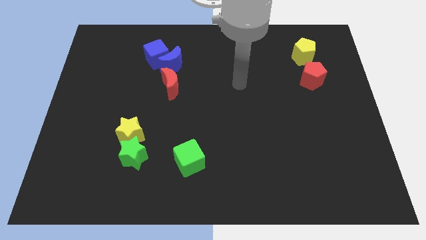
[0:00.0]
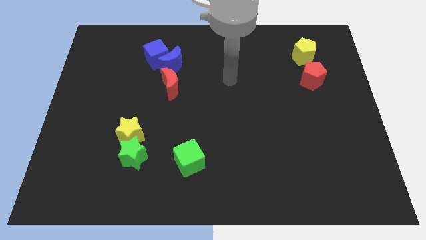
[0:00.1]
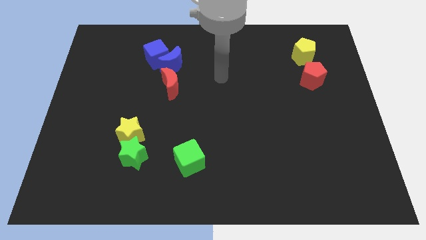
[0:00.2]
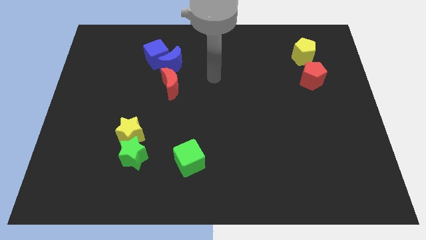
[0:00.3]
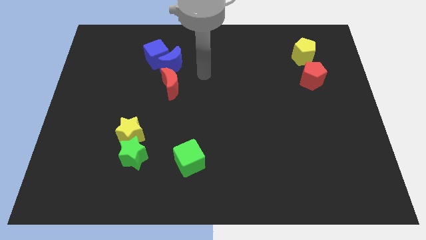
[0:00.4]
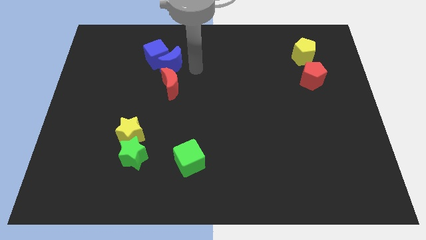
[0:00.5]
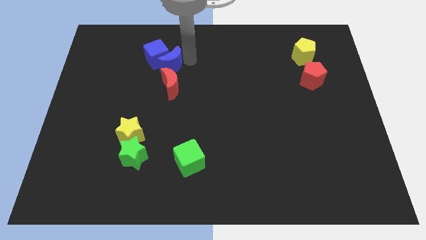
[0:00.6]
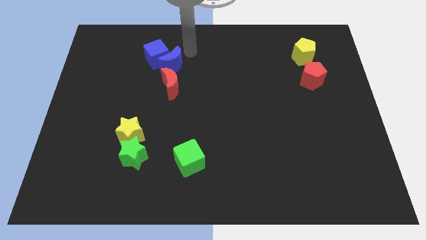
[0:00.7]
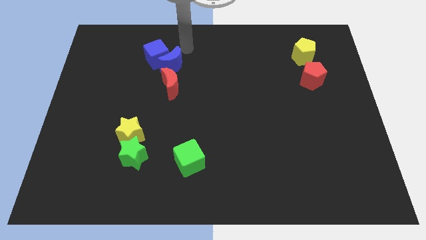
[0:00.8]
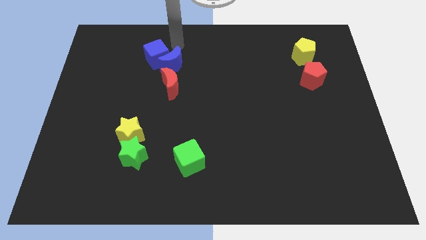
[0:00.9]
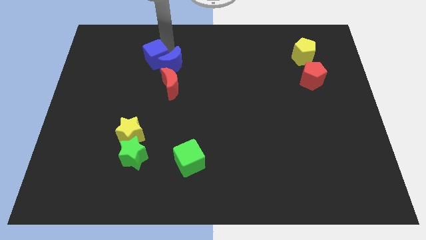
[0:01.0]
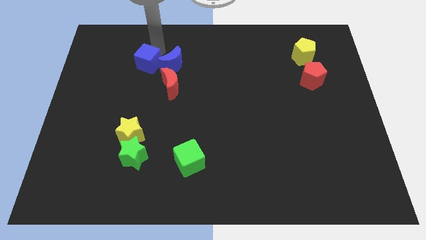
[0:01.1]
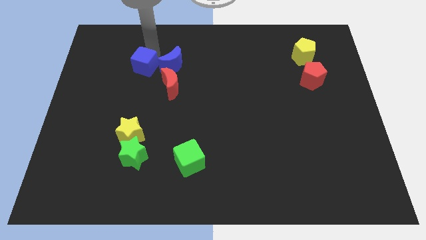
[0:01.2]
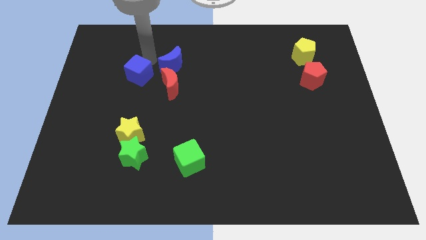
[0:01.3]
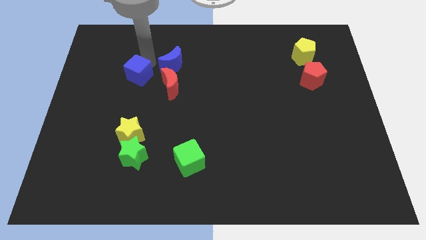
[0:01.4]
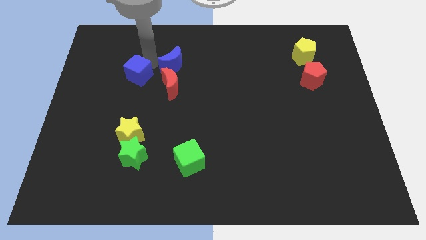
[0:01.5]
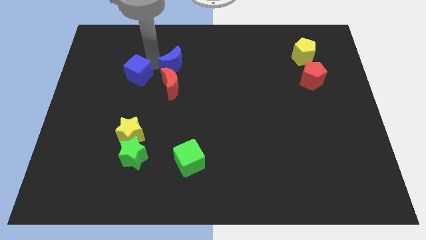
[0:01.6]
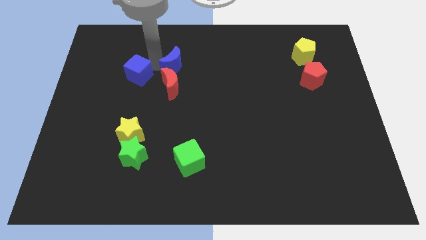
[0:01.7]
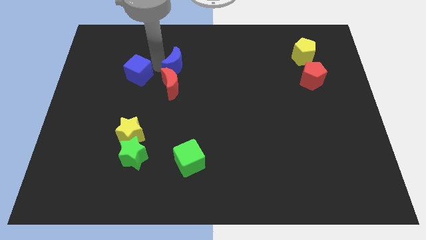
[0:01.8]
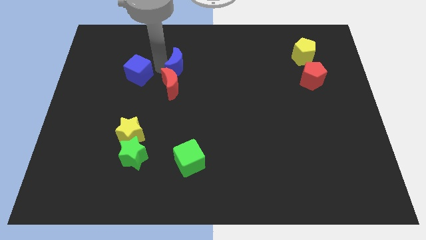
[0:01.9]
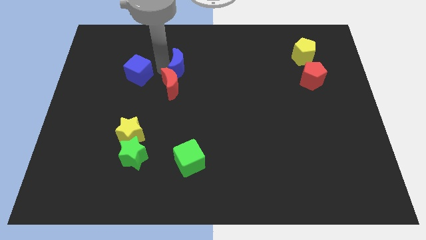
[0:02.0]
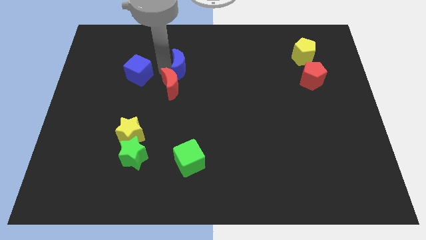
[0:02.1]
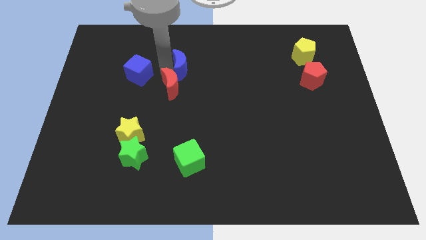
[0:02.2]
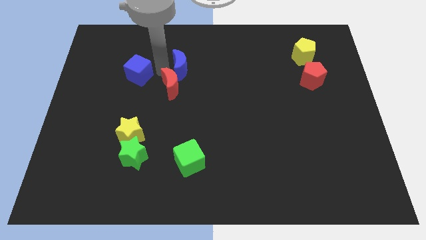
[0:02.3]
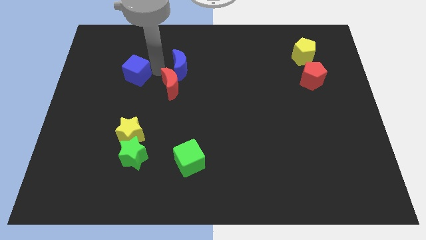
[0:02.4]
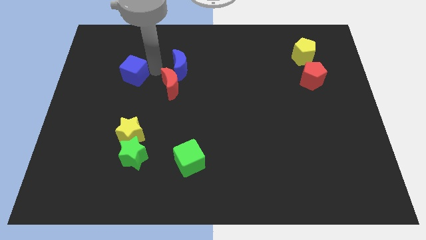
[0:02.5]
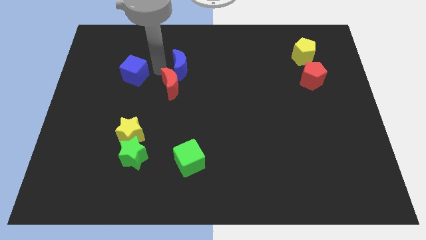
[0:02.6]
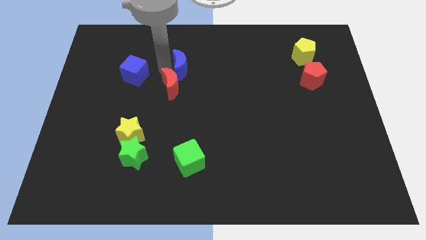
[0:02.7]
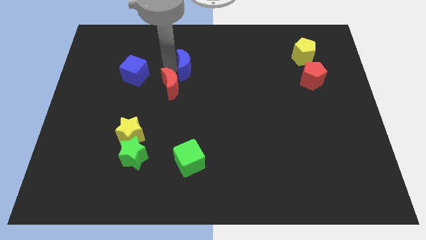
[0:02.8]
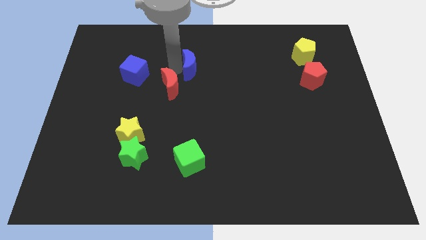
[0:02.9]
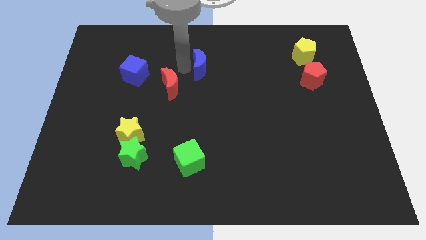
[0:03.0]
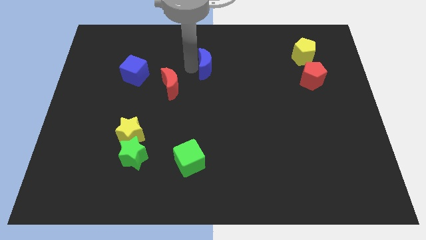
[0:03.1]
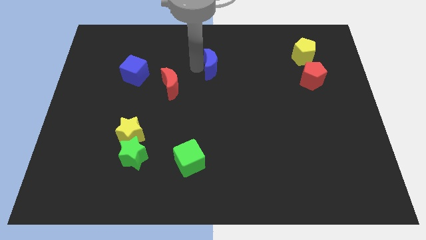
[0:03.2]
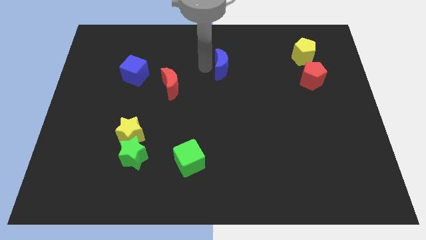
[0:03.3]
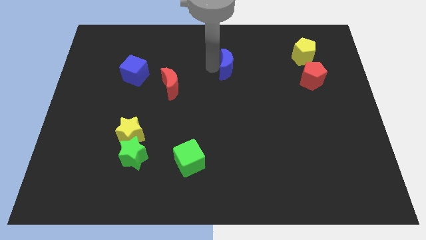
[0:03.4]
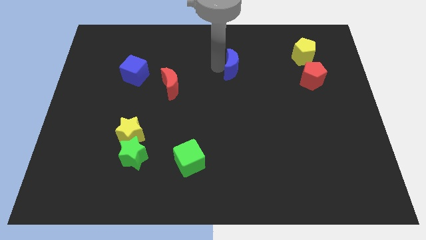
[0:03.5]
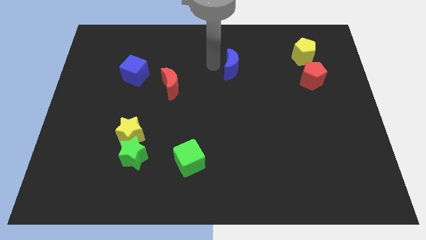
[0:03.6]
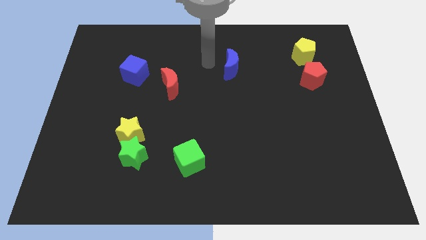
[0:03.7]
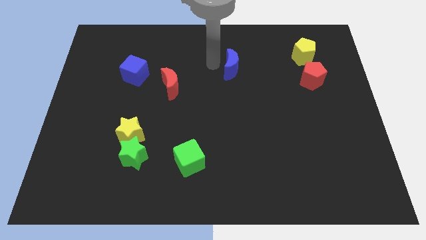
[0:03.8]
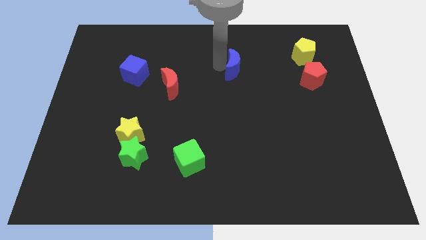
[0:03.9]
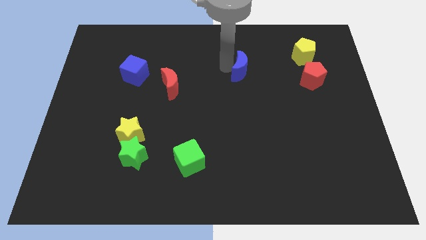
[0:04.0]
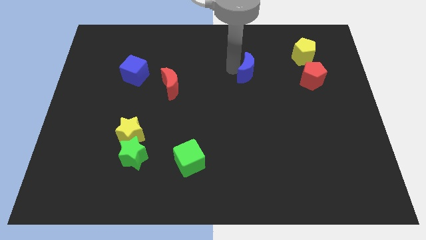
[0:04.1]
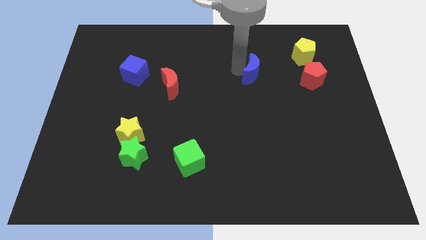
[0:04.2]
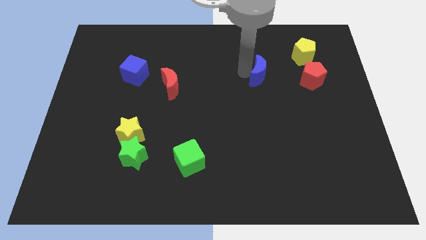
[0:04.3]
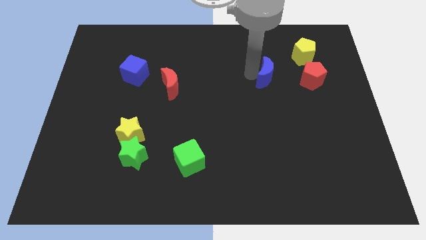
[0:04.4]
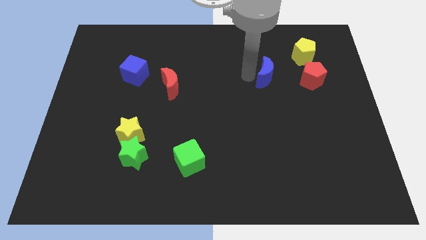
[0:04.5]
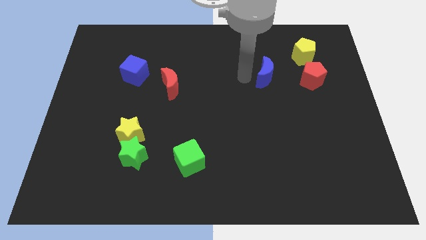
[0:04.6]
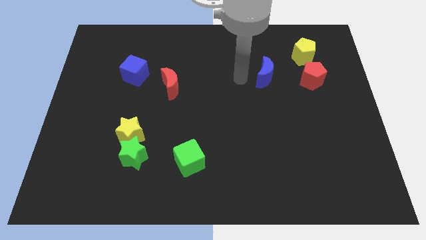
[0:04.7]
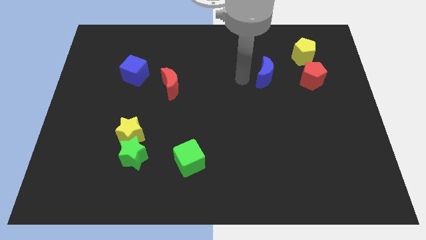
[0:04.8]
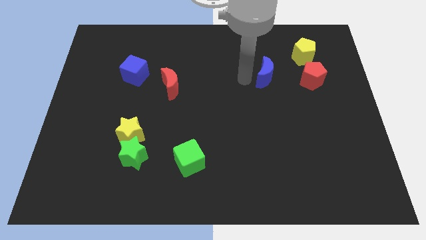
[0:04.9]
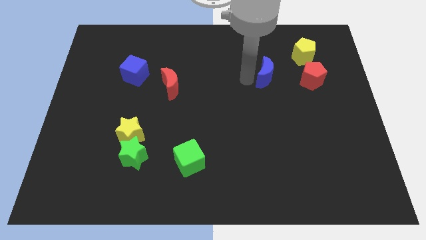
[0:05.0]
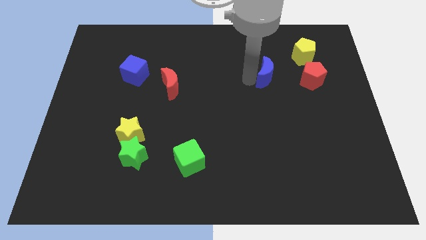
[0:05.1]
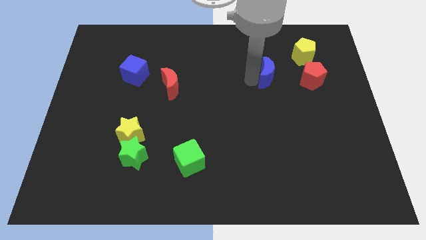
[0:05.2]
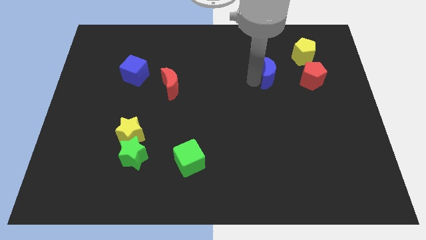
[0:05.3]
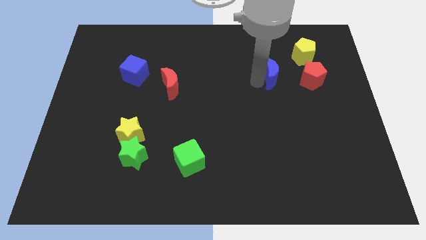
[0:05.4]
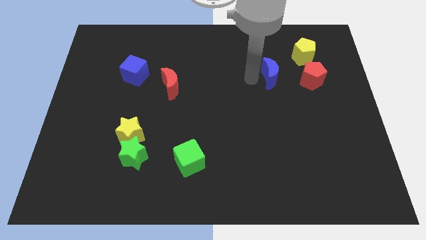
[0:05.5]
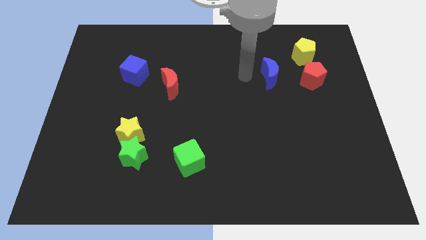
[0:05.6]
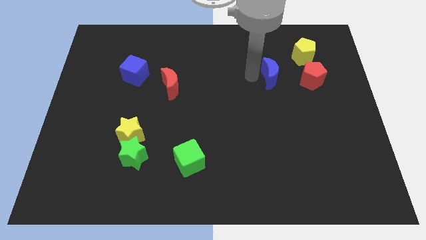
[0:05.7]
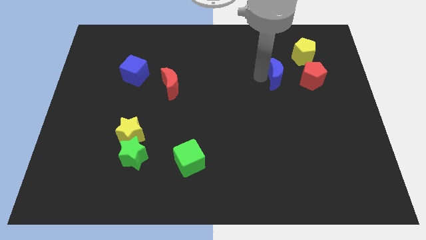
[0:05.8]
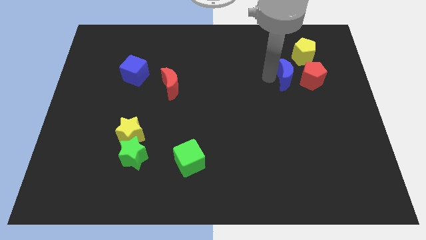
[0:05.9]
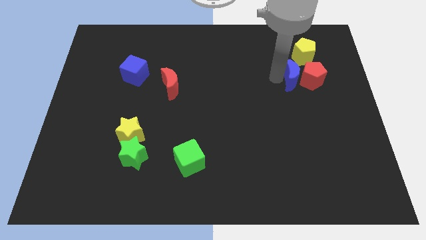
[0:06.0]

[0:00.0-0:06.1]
put the blue moon to the red pentagon

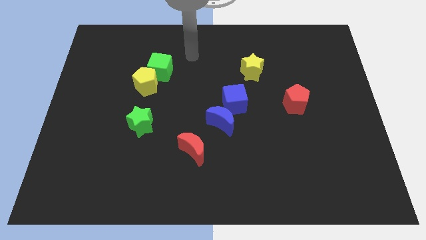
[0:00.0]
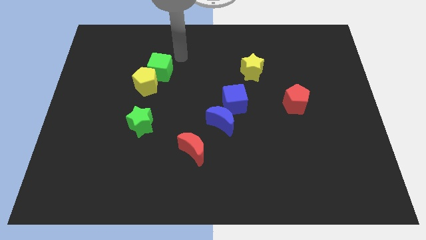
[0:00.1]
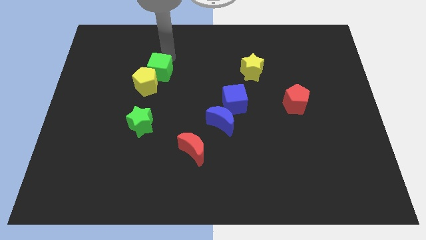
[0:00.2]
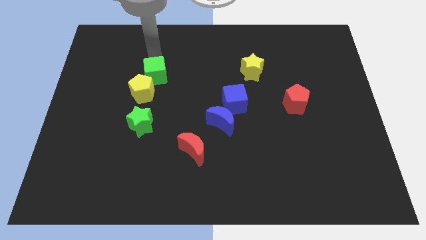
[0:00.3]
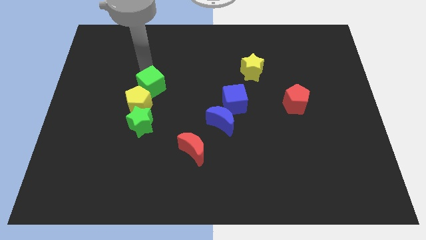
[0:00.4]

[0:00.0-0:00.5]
slide the yellow pentagon close to the green star

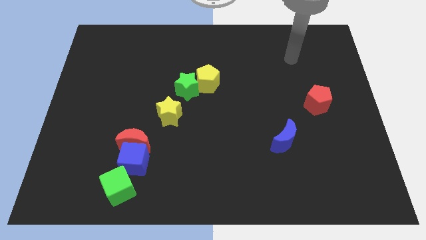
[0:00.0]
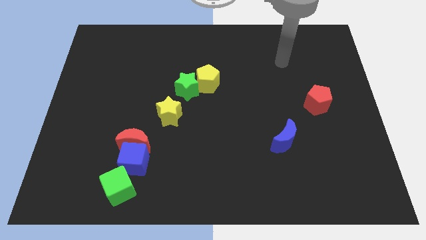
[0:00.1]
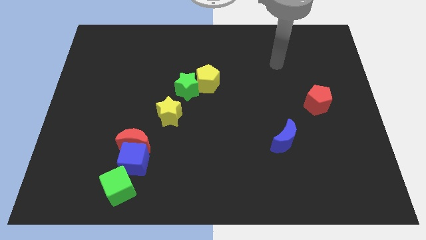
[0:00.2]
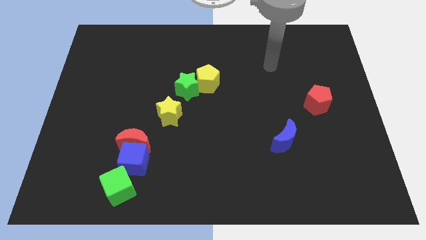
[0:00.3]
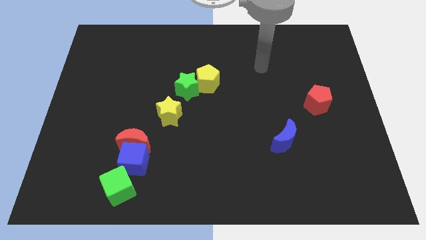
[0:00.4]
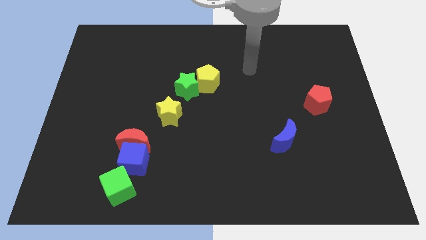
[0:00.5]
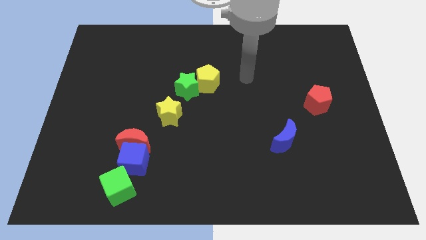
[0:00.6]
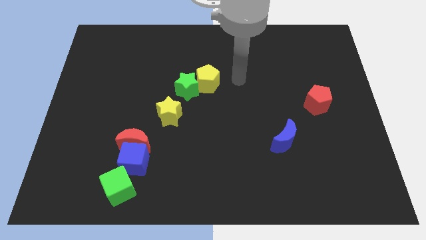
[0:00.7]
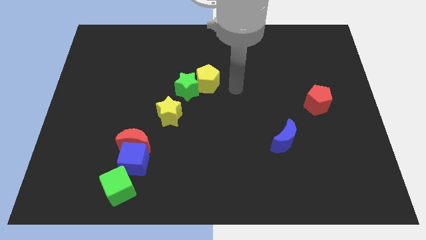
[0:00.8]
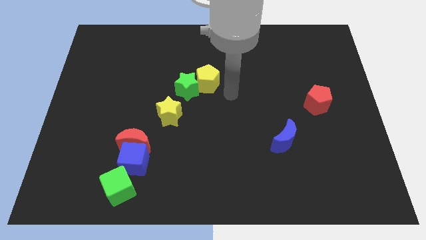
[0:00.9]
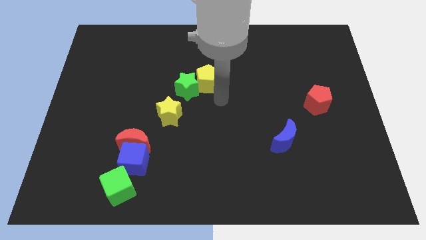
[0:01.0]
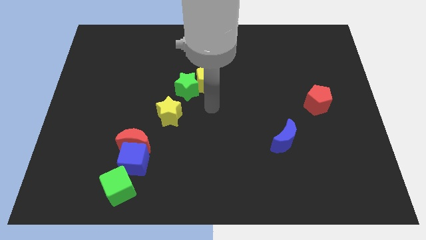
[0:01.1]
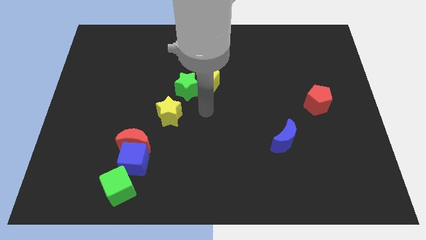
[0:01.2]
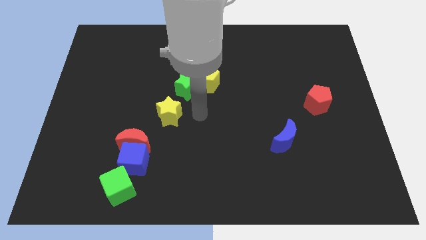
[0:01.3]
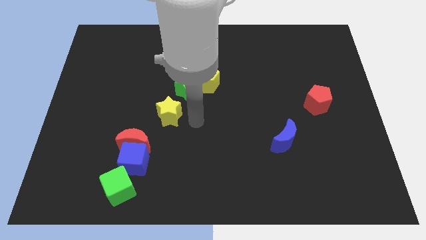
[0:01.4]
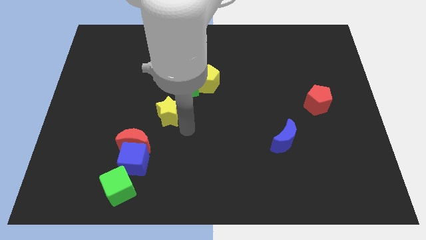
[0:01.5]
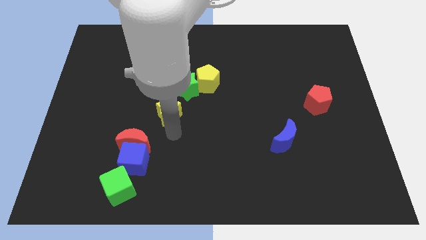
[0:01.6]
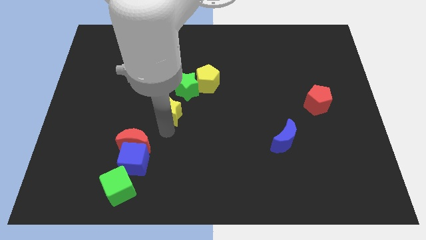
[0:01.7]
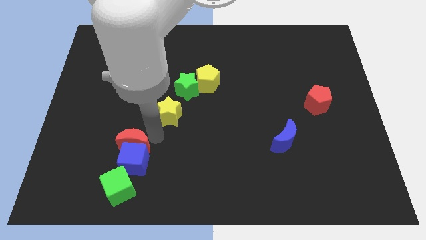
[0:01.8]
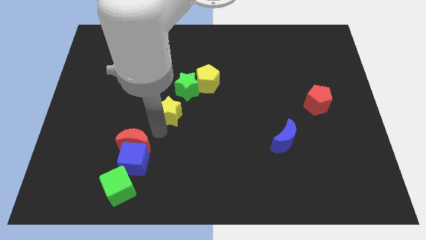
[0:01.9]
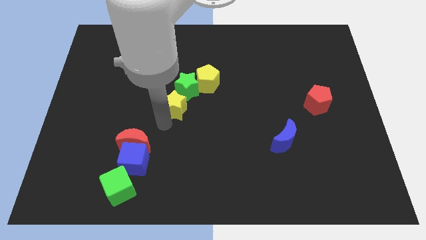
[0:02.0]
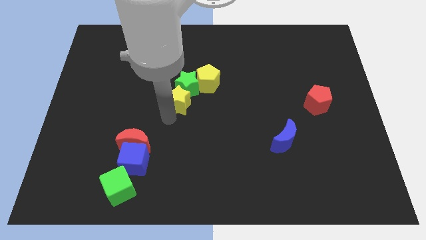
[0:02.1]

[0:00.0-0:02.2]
slide the yellow star next to the green star
